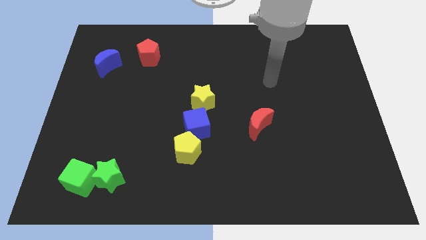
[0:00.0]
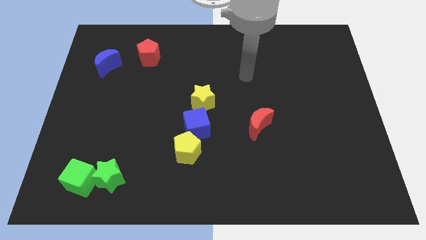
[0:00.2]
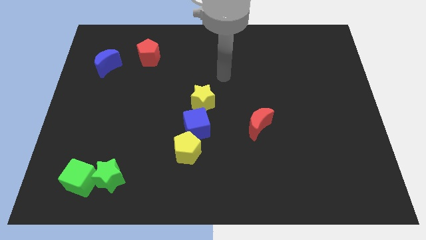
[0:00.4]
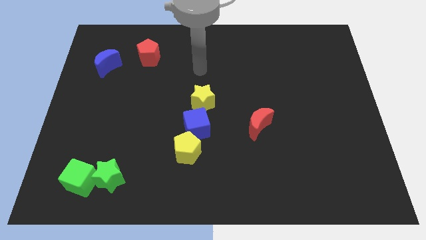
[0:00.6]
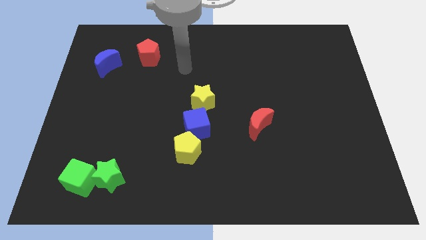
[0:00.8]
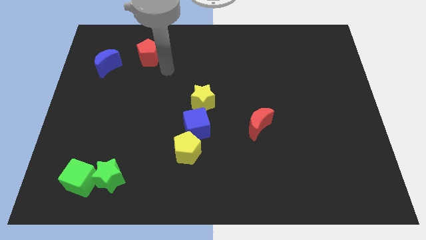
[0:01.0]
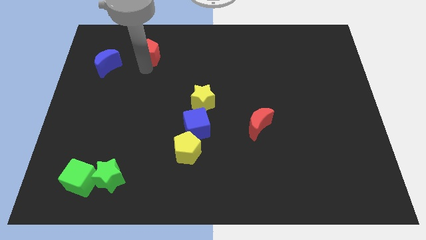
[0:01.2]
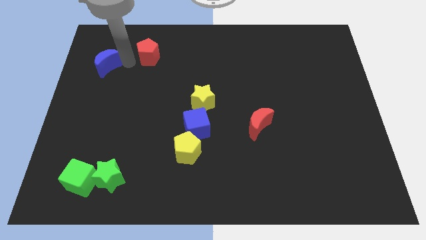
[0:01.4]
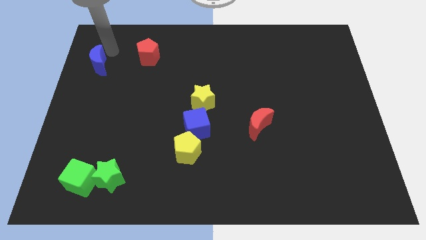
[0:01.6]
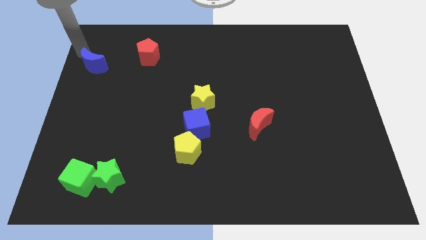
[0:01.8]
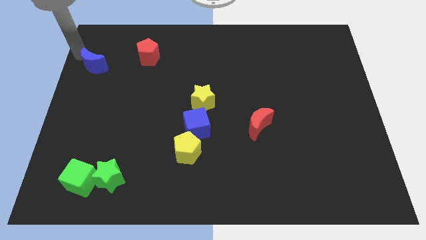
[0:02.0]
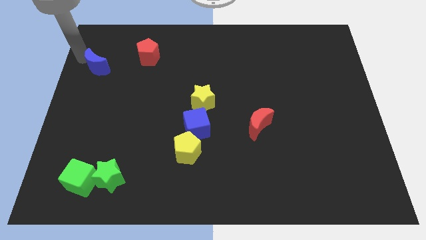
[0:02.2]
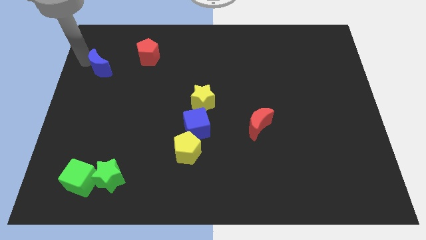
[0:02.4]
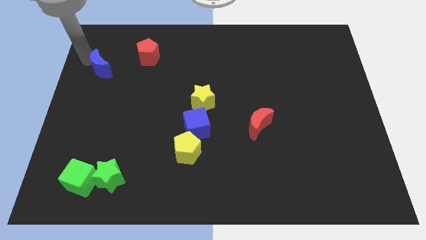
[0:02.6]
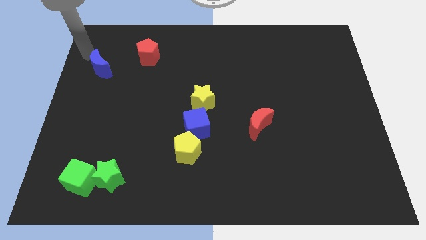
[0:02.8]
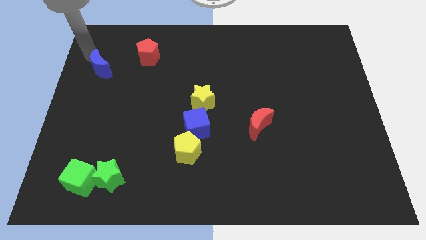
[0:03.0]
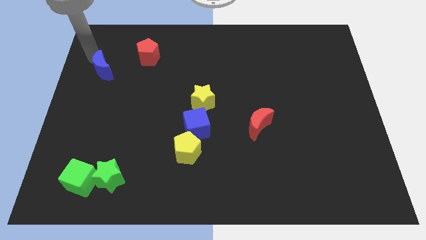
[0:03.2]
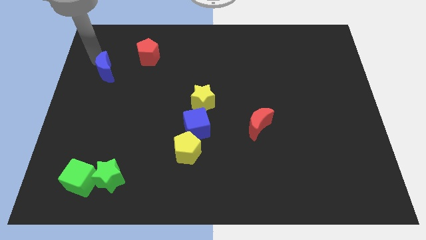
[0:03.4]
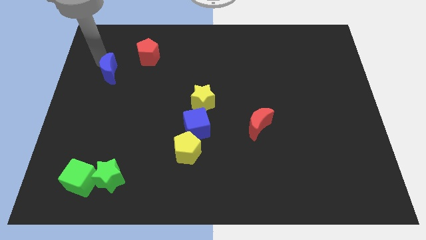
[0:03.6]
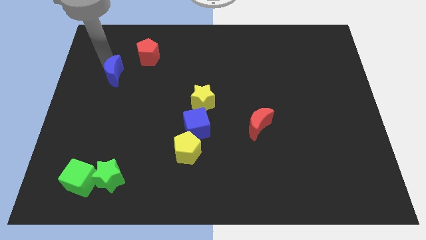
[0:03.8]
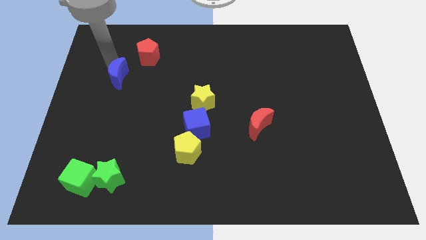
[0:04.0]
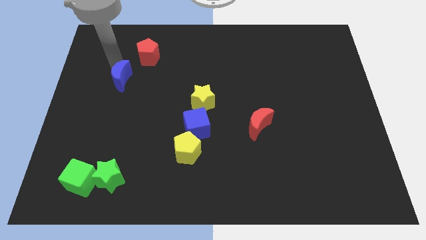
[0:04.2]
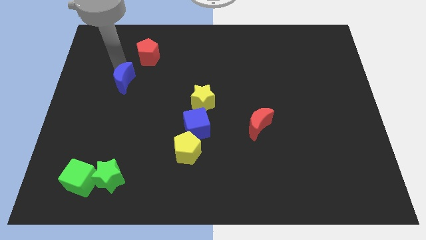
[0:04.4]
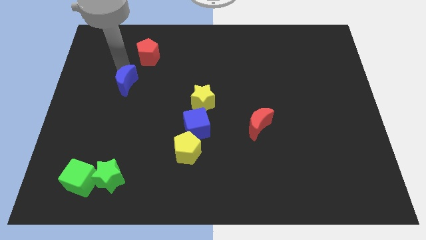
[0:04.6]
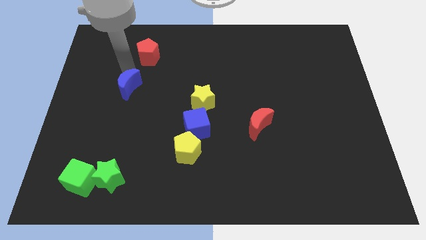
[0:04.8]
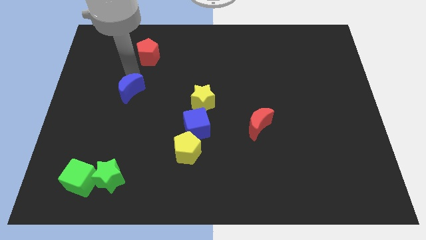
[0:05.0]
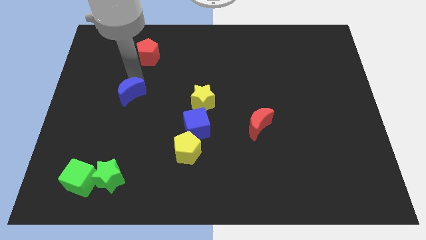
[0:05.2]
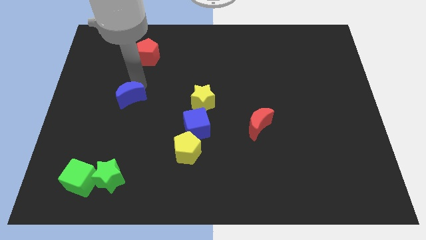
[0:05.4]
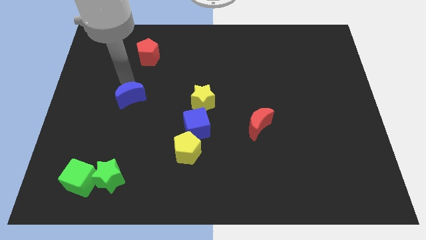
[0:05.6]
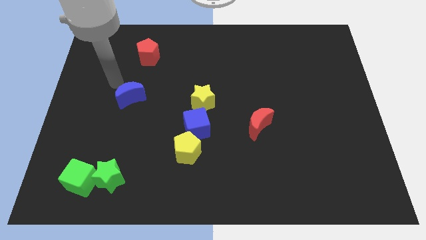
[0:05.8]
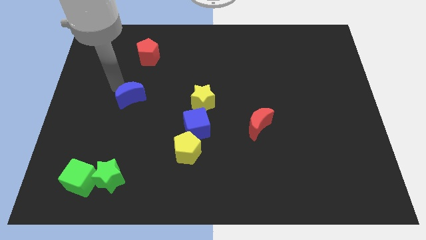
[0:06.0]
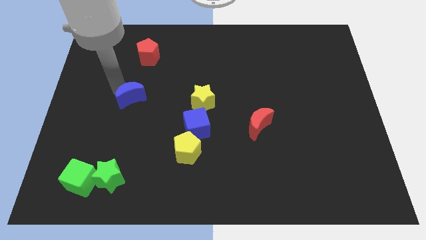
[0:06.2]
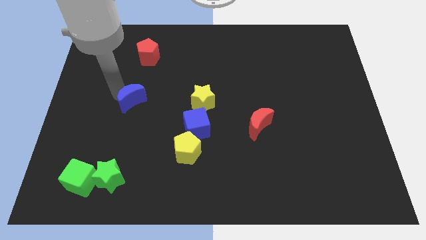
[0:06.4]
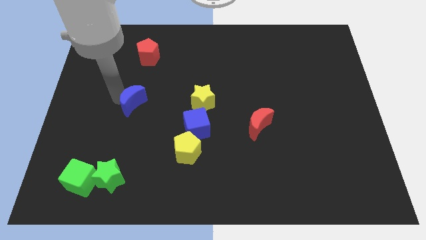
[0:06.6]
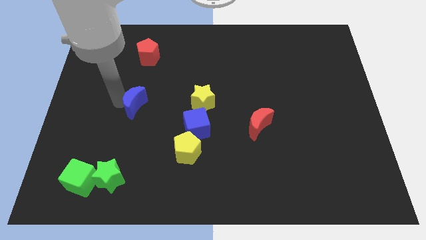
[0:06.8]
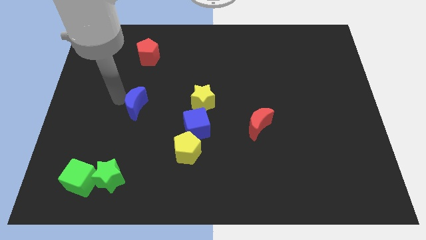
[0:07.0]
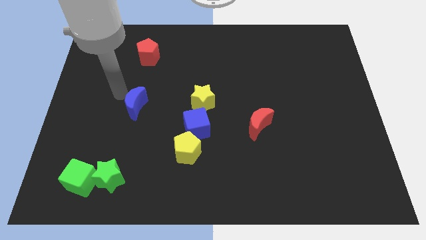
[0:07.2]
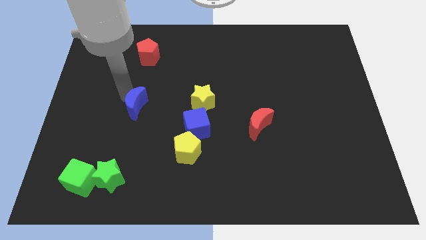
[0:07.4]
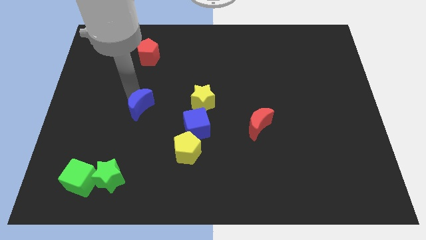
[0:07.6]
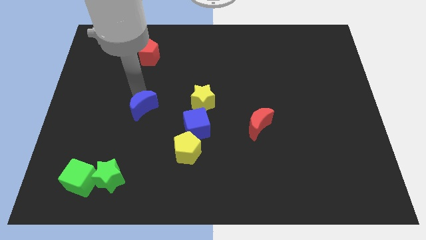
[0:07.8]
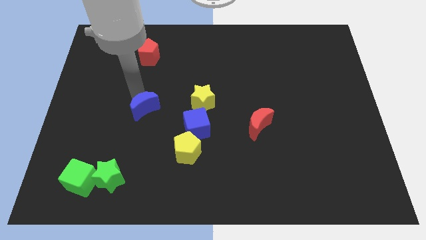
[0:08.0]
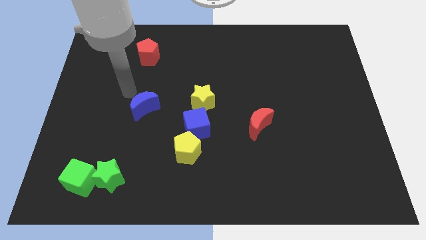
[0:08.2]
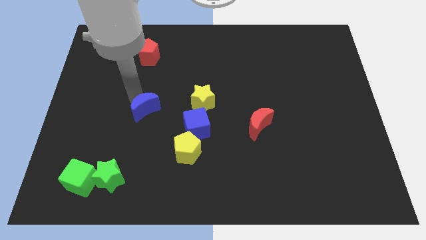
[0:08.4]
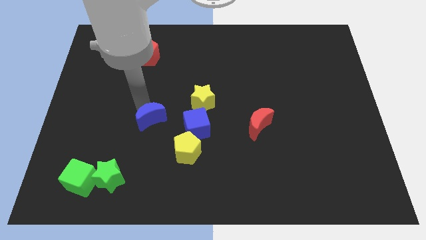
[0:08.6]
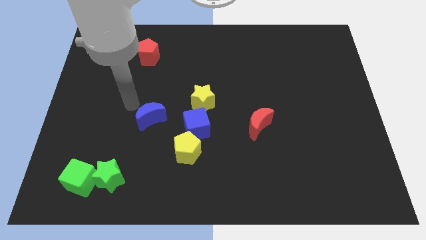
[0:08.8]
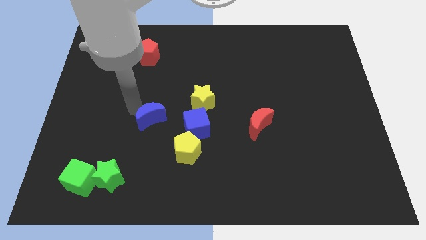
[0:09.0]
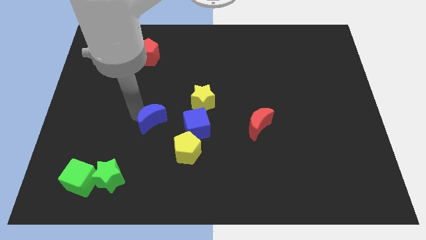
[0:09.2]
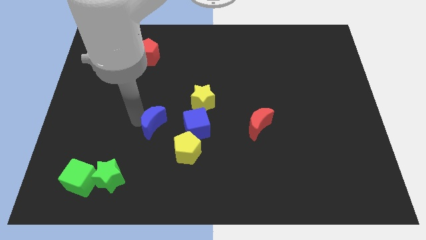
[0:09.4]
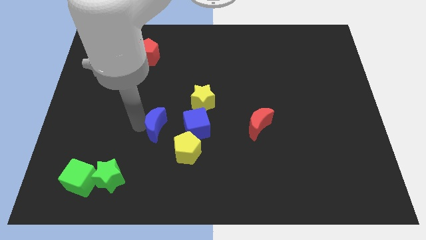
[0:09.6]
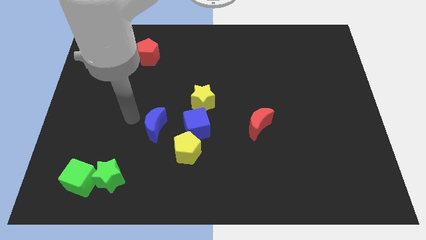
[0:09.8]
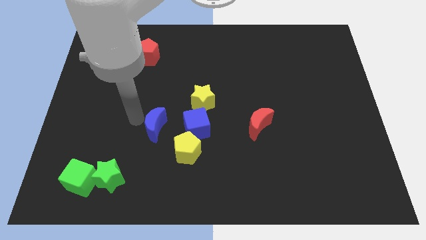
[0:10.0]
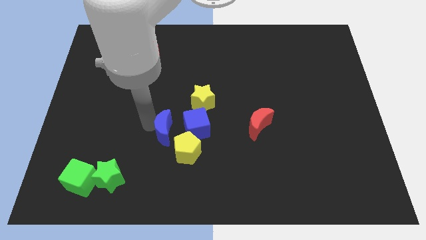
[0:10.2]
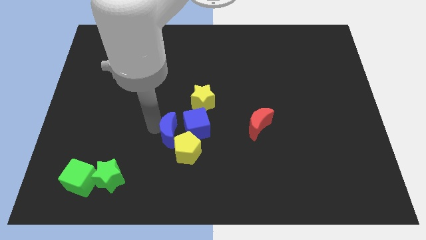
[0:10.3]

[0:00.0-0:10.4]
slide the blue moon towards the yellow pentagon

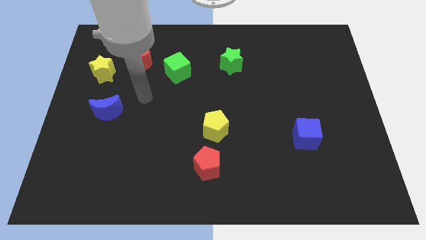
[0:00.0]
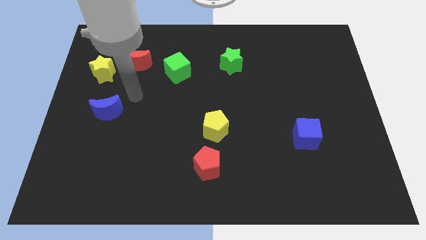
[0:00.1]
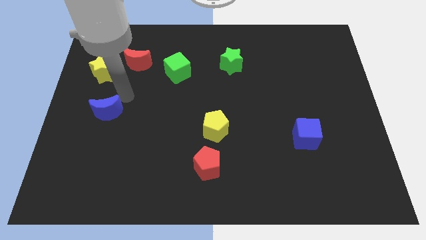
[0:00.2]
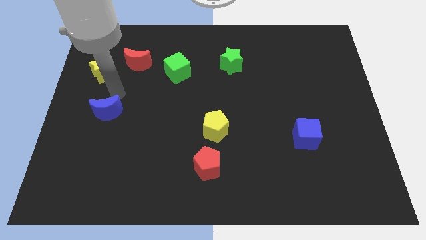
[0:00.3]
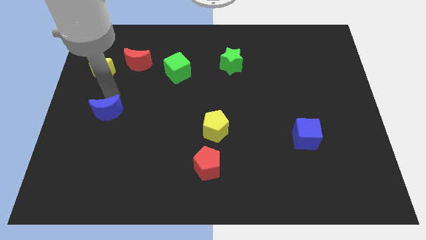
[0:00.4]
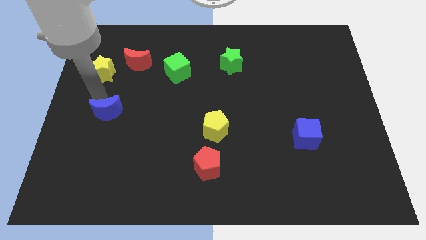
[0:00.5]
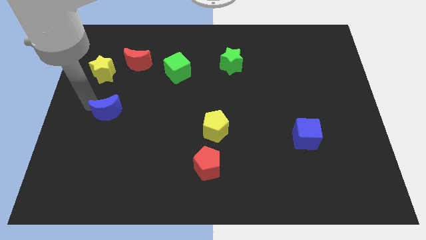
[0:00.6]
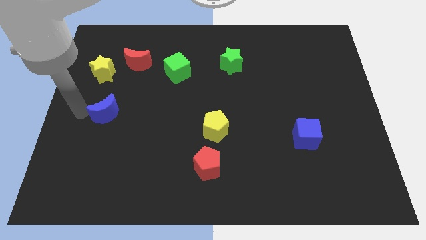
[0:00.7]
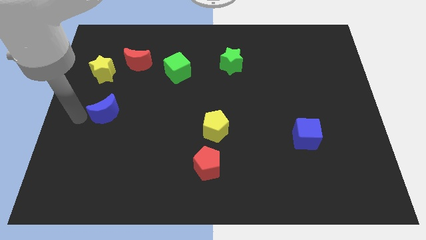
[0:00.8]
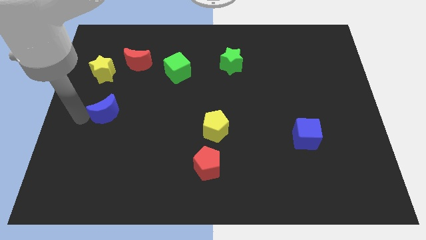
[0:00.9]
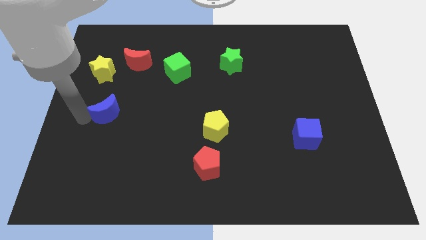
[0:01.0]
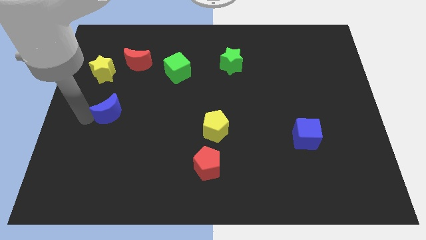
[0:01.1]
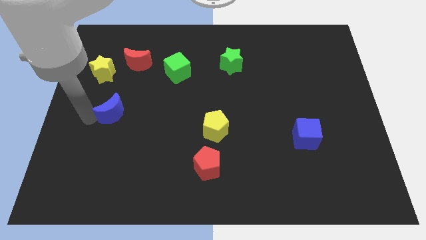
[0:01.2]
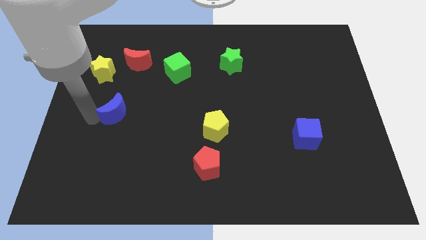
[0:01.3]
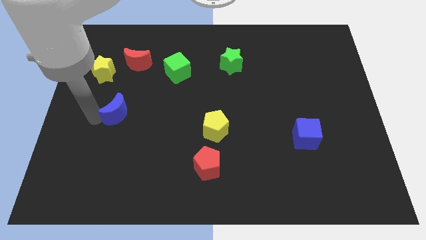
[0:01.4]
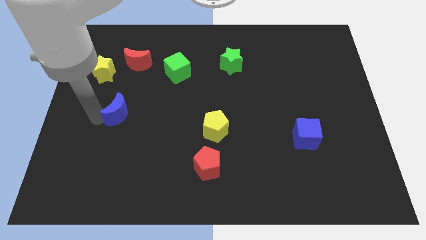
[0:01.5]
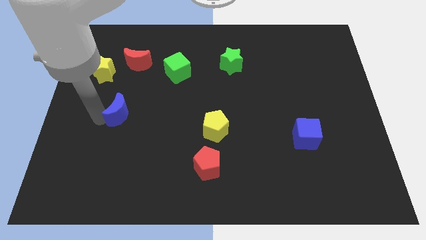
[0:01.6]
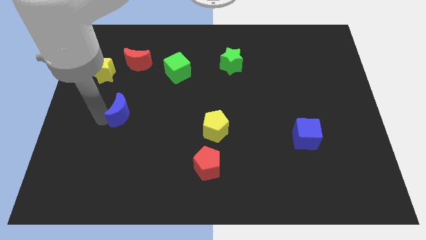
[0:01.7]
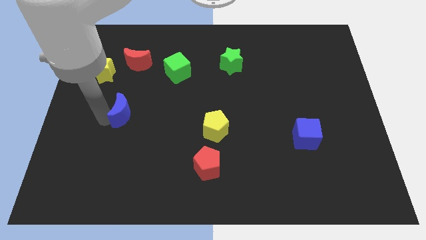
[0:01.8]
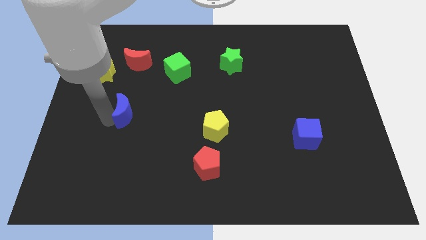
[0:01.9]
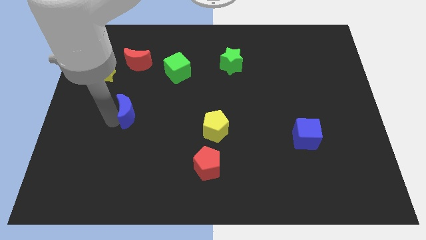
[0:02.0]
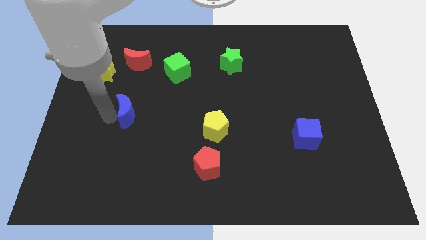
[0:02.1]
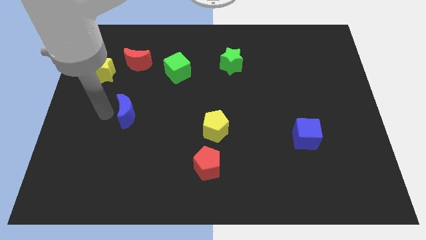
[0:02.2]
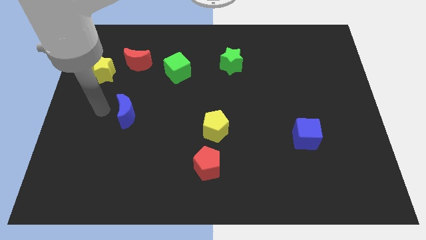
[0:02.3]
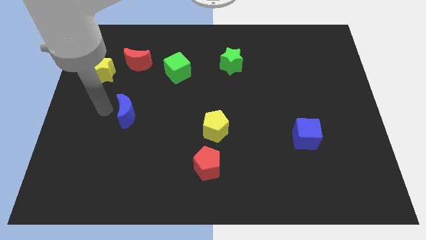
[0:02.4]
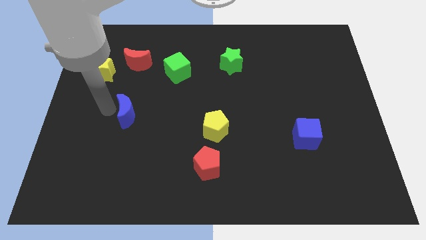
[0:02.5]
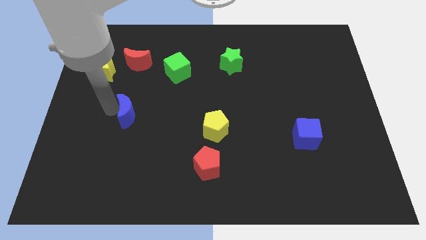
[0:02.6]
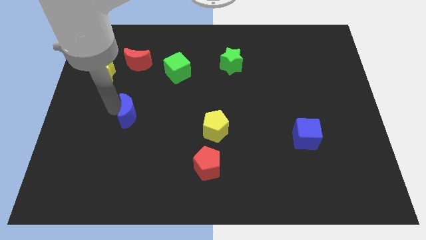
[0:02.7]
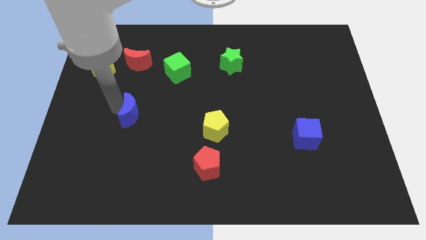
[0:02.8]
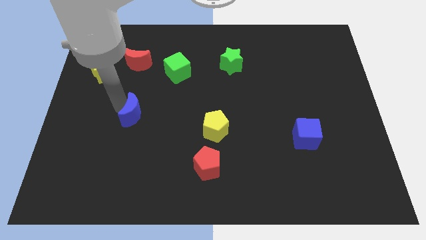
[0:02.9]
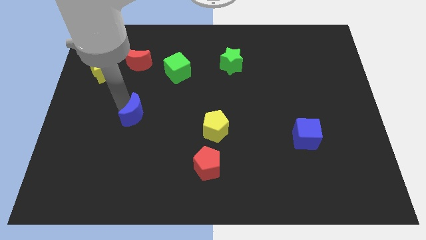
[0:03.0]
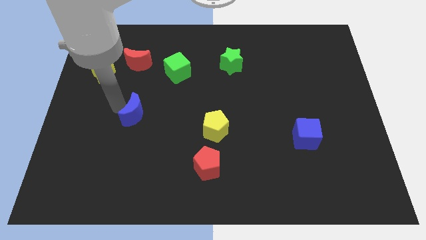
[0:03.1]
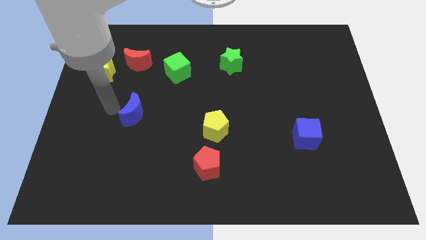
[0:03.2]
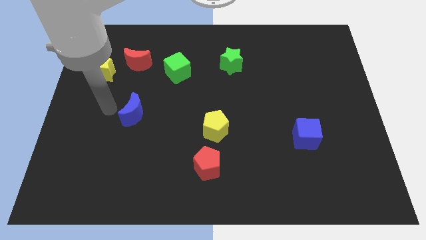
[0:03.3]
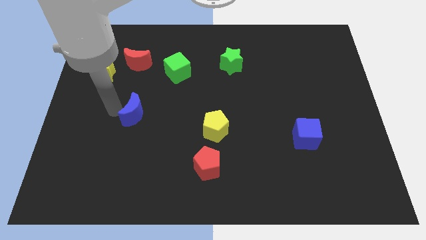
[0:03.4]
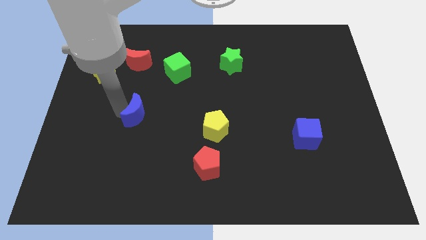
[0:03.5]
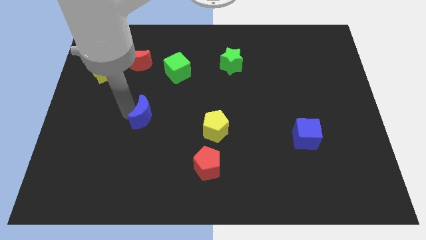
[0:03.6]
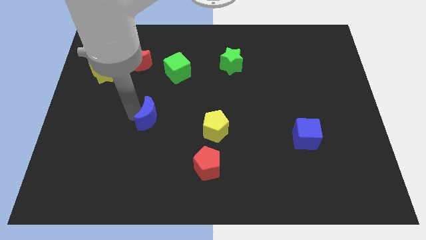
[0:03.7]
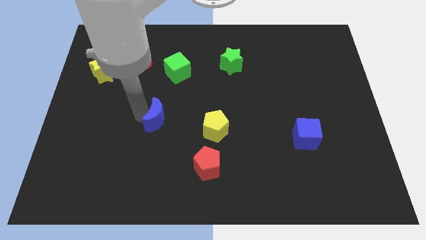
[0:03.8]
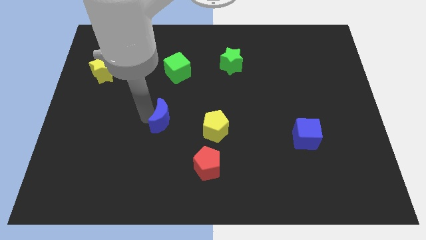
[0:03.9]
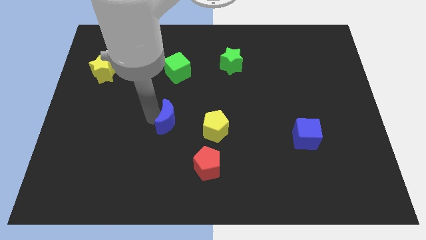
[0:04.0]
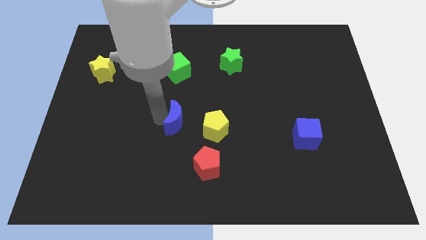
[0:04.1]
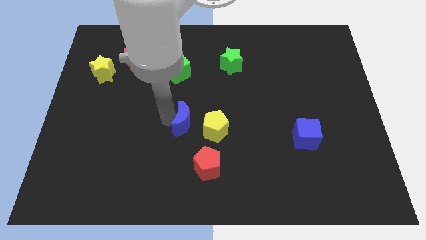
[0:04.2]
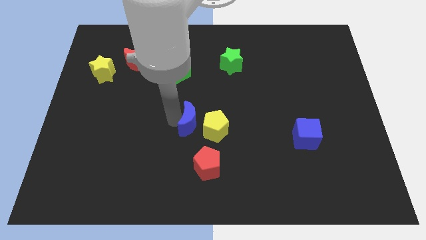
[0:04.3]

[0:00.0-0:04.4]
slide the blue moon to the yellow pentagon
